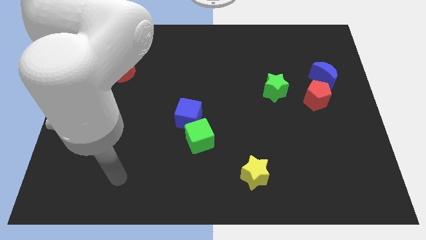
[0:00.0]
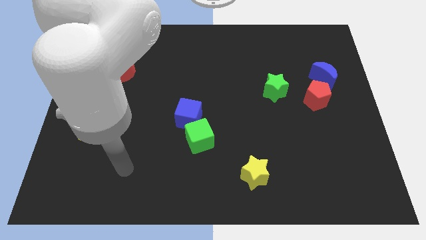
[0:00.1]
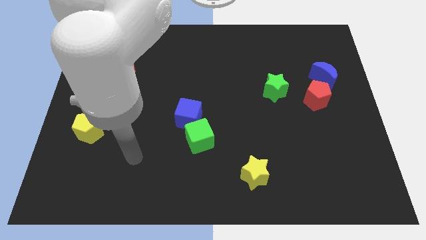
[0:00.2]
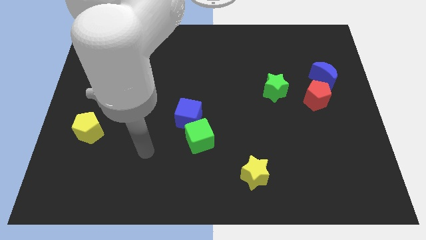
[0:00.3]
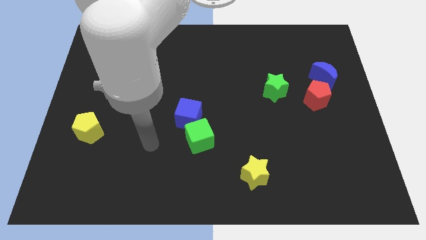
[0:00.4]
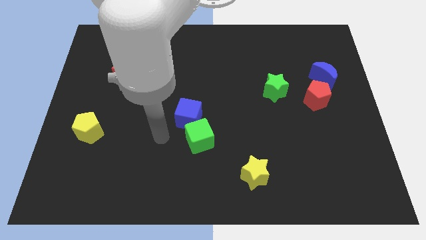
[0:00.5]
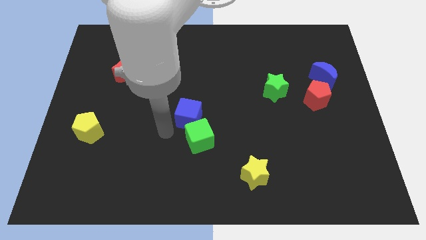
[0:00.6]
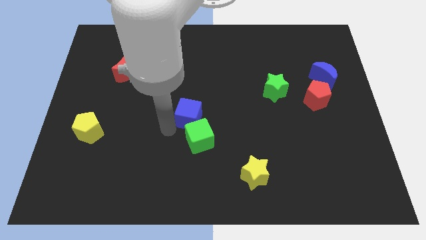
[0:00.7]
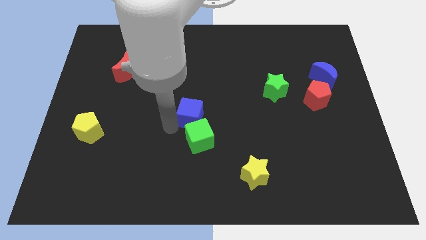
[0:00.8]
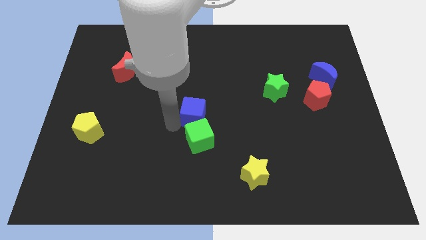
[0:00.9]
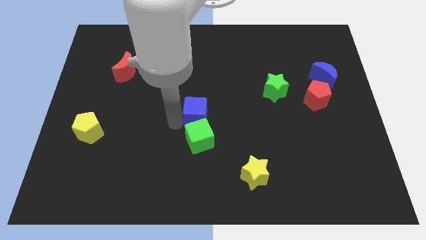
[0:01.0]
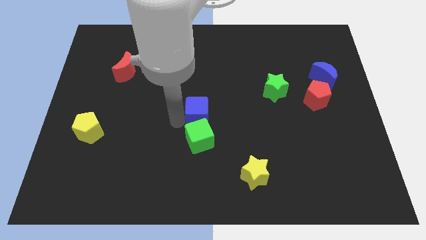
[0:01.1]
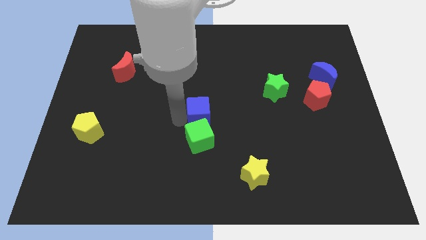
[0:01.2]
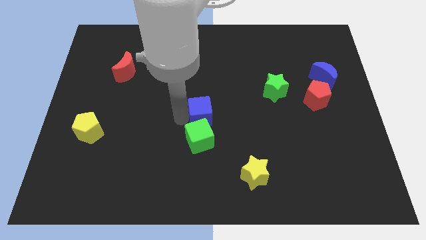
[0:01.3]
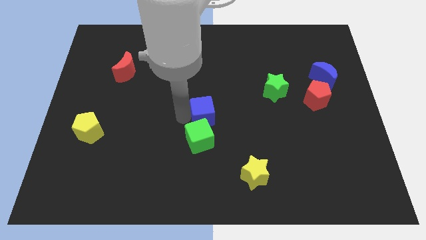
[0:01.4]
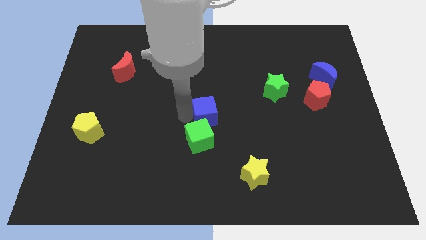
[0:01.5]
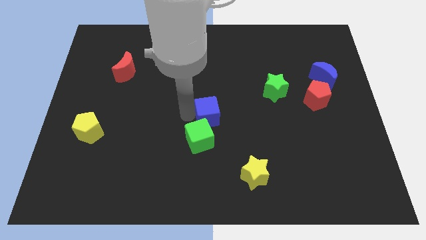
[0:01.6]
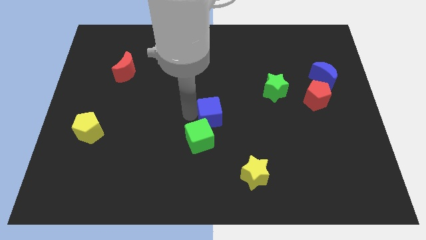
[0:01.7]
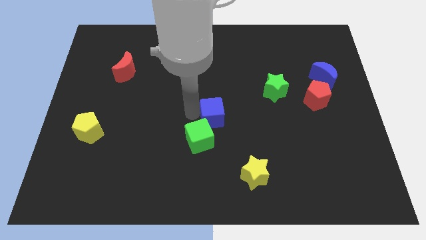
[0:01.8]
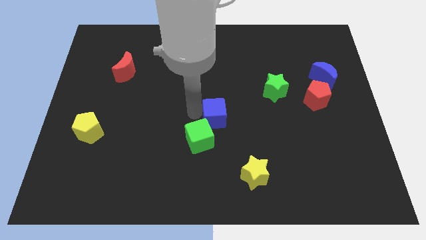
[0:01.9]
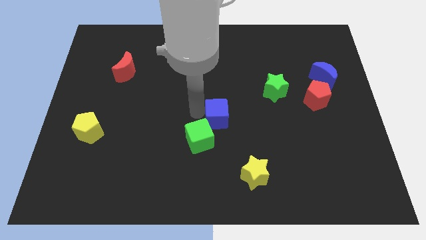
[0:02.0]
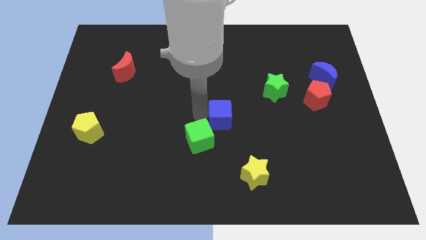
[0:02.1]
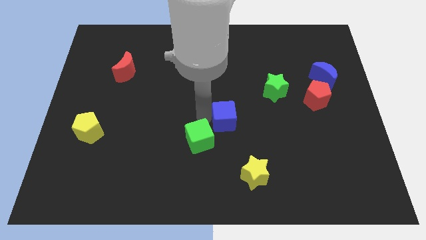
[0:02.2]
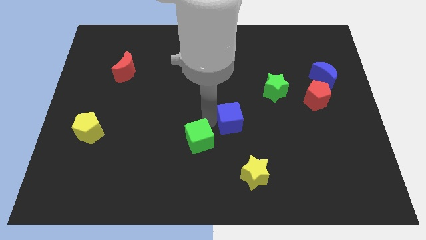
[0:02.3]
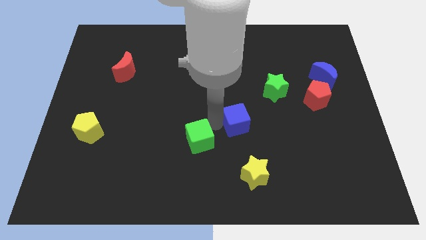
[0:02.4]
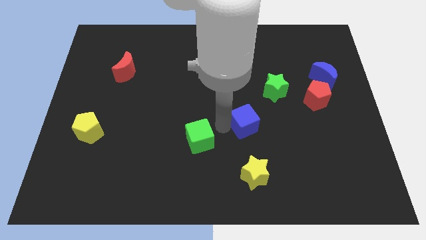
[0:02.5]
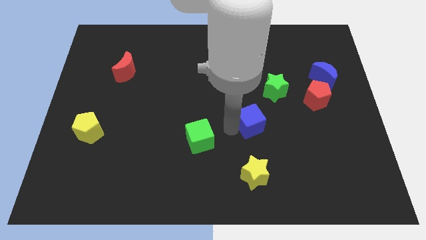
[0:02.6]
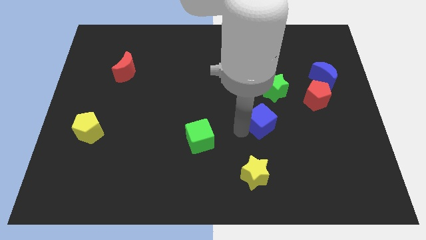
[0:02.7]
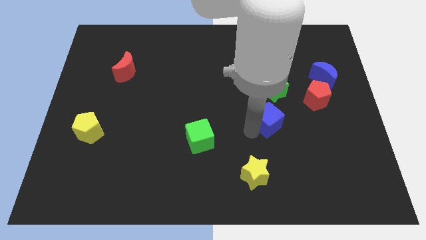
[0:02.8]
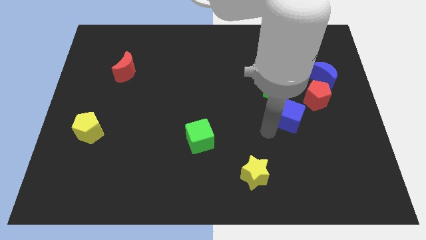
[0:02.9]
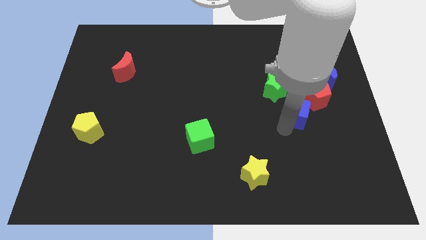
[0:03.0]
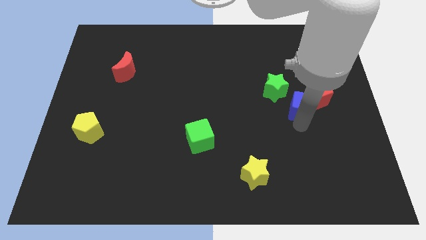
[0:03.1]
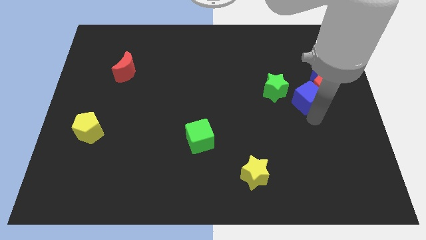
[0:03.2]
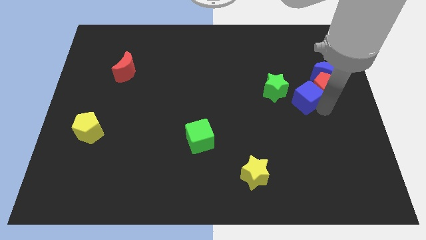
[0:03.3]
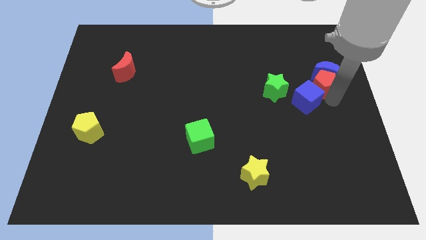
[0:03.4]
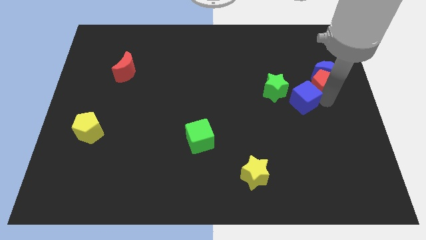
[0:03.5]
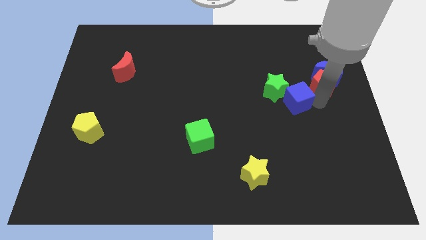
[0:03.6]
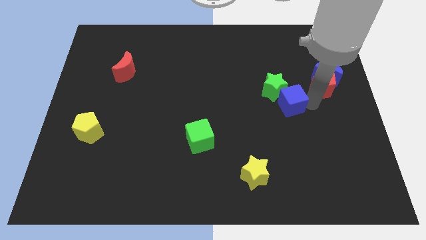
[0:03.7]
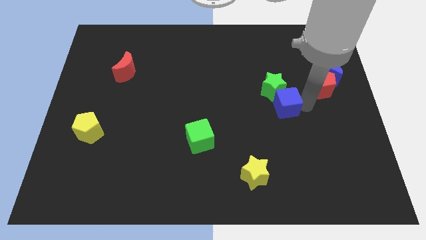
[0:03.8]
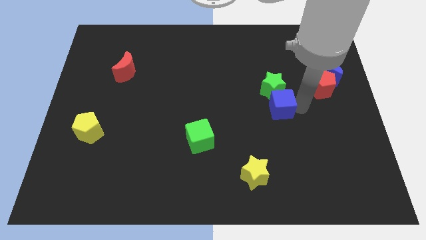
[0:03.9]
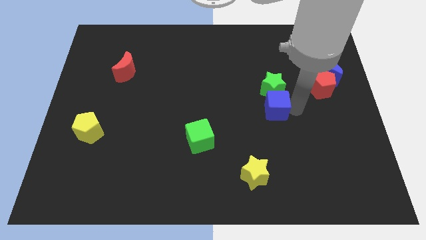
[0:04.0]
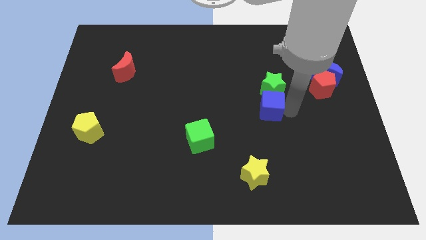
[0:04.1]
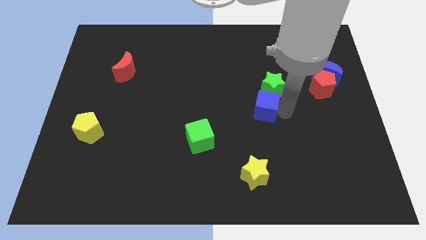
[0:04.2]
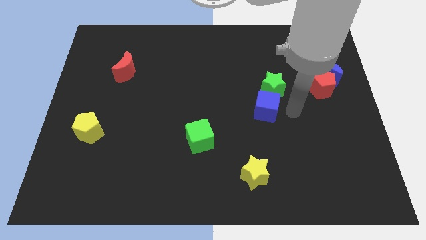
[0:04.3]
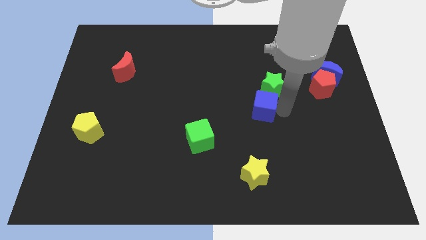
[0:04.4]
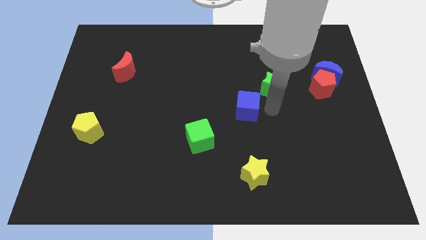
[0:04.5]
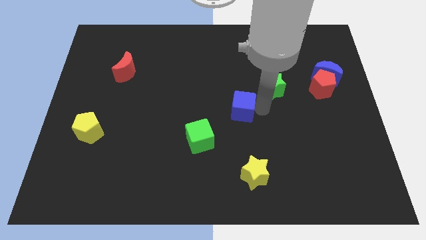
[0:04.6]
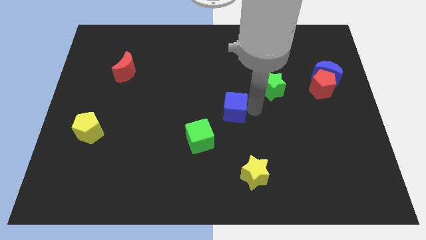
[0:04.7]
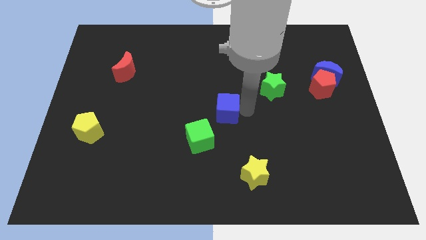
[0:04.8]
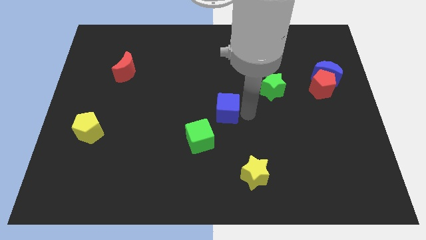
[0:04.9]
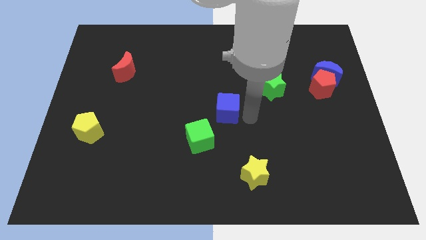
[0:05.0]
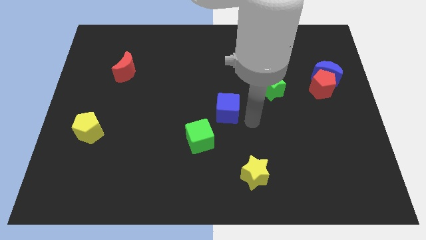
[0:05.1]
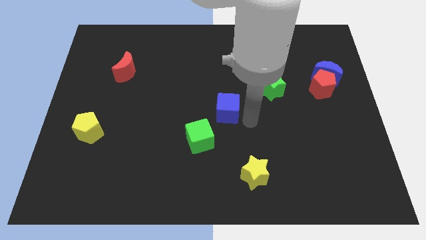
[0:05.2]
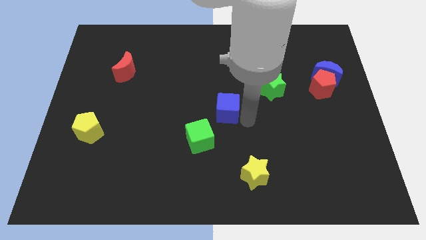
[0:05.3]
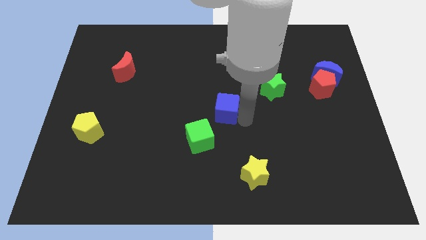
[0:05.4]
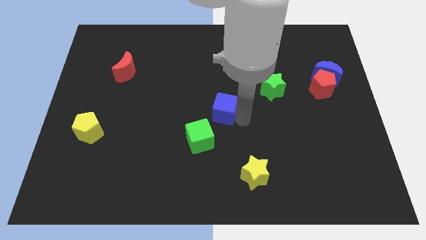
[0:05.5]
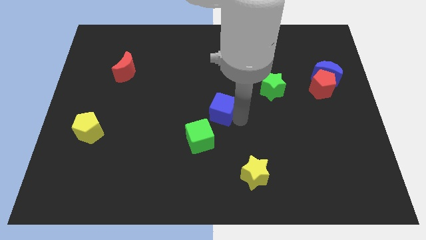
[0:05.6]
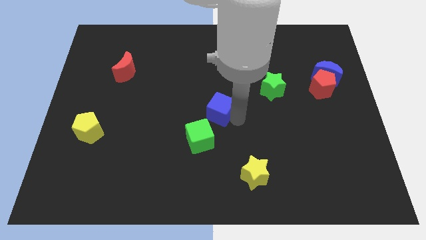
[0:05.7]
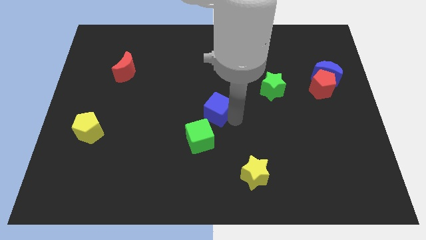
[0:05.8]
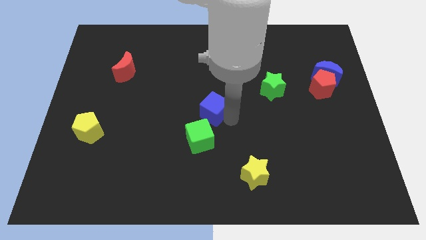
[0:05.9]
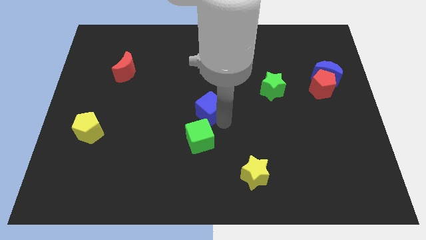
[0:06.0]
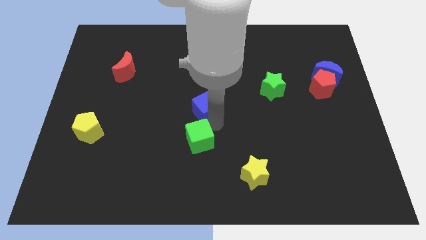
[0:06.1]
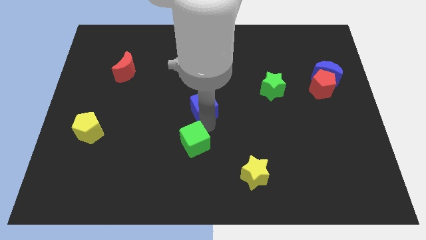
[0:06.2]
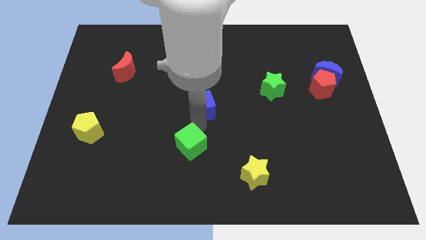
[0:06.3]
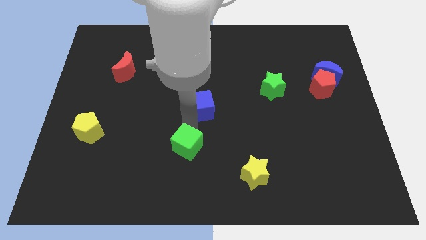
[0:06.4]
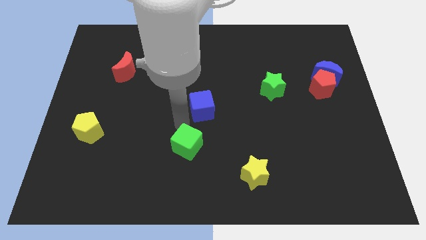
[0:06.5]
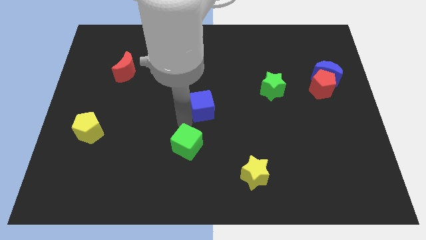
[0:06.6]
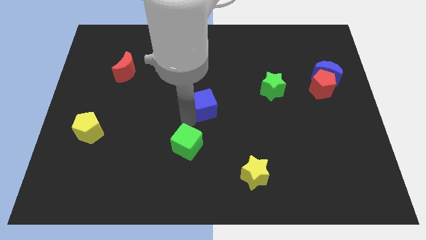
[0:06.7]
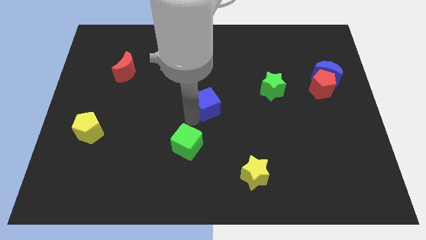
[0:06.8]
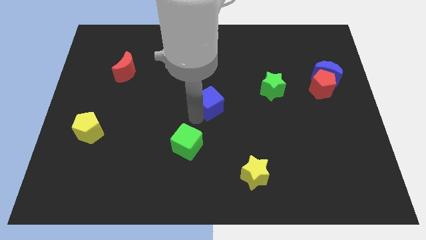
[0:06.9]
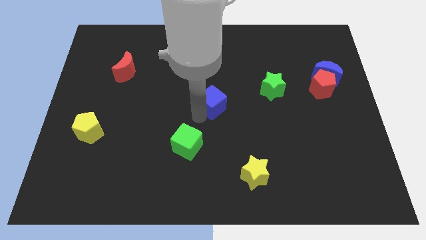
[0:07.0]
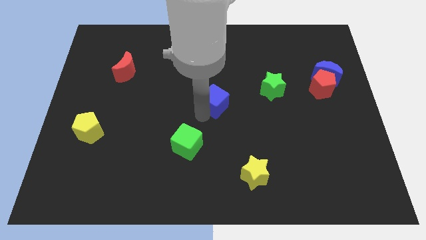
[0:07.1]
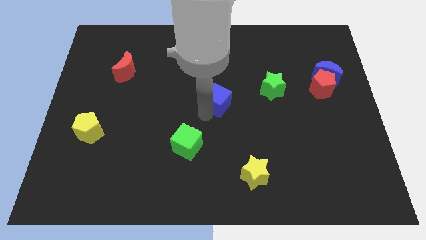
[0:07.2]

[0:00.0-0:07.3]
move the blue cube to the left of the green star

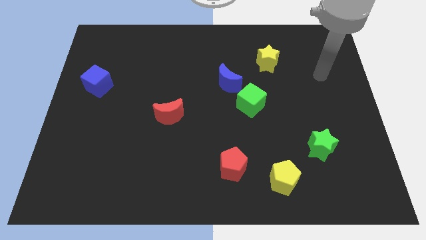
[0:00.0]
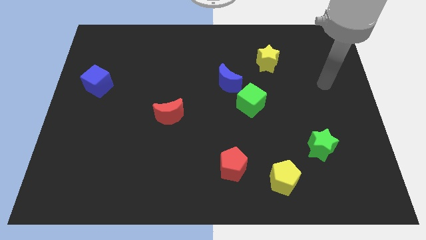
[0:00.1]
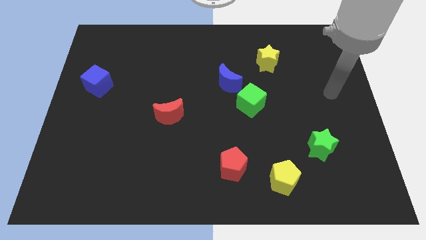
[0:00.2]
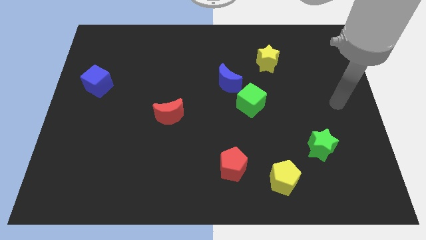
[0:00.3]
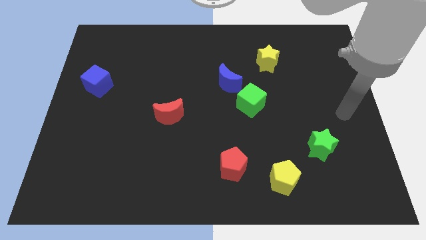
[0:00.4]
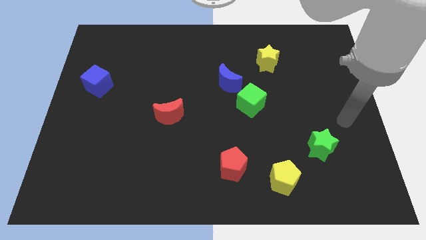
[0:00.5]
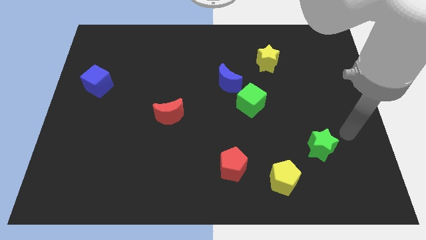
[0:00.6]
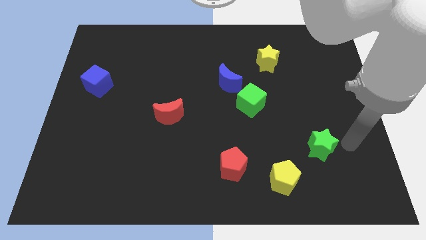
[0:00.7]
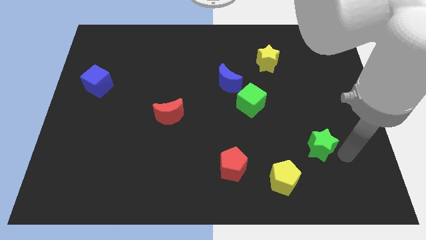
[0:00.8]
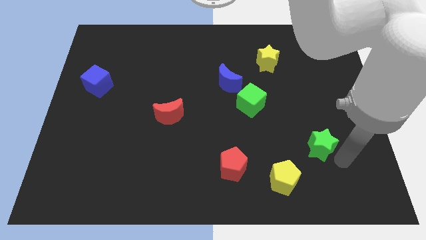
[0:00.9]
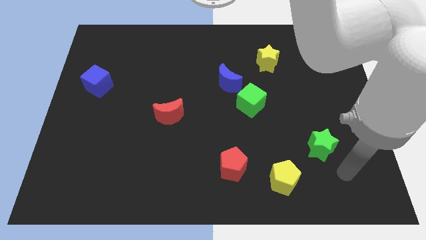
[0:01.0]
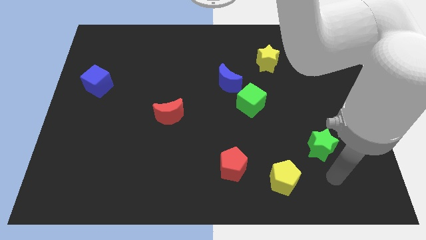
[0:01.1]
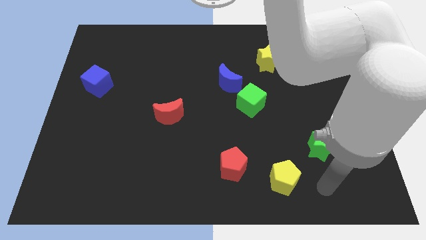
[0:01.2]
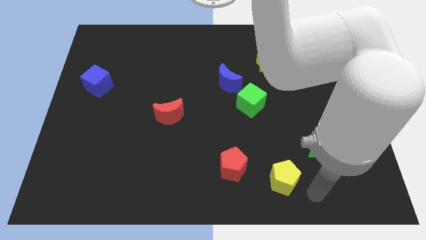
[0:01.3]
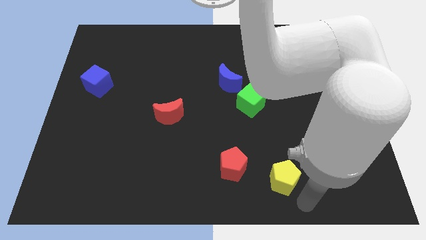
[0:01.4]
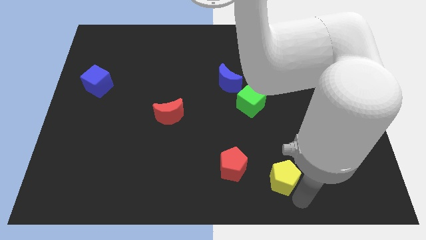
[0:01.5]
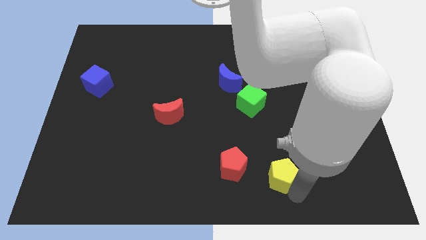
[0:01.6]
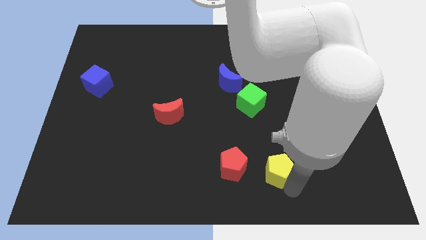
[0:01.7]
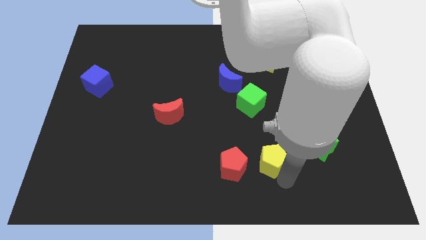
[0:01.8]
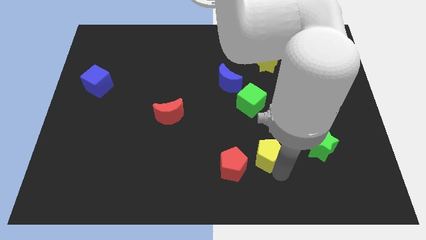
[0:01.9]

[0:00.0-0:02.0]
push the yellow pentagon below the green cube
